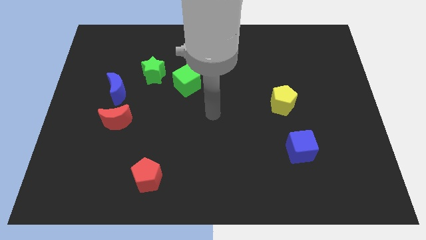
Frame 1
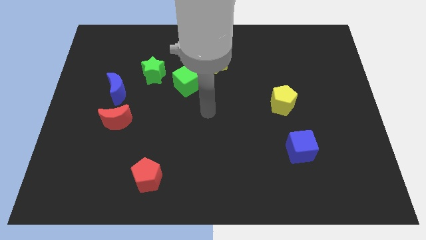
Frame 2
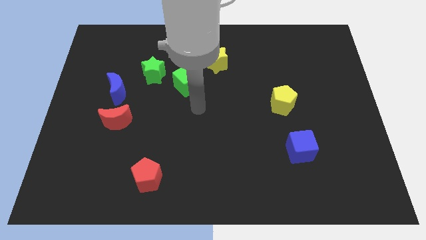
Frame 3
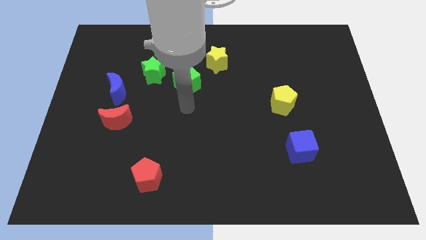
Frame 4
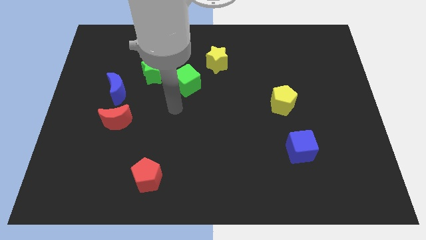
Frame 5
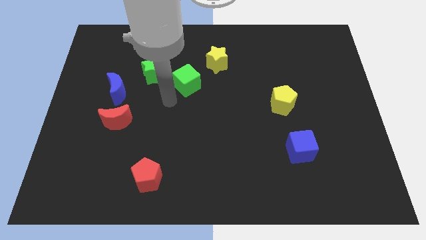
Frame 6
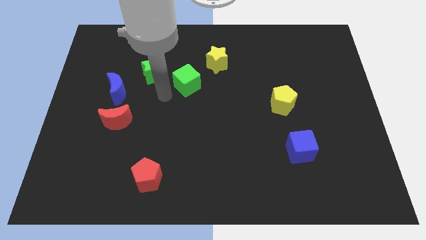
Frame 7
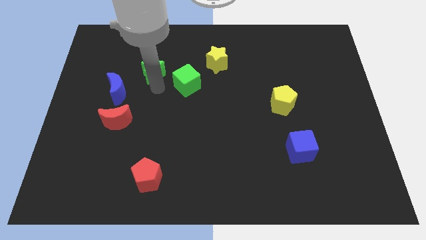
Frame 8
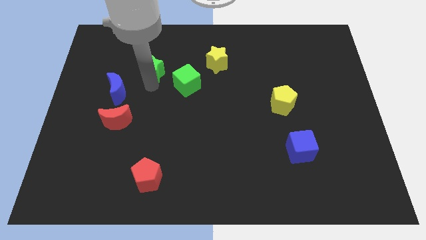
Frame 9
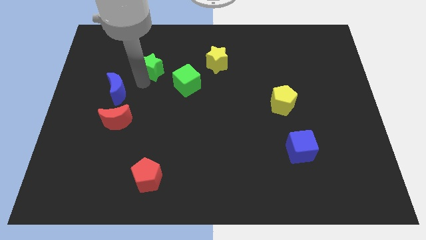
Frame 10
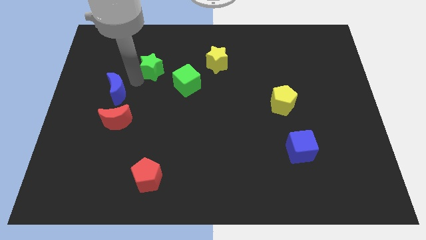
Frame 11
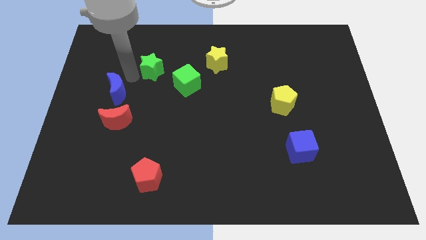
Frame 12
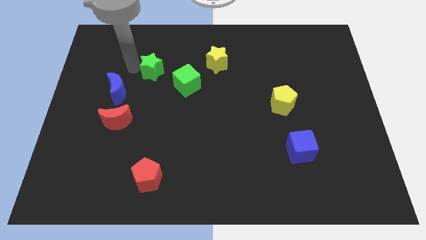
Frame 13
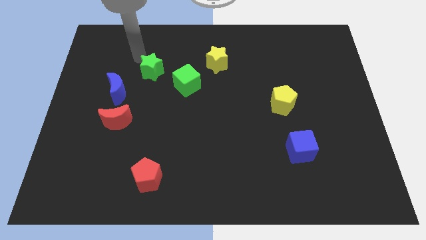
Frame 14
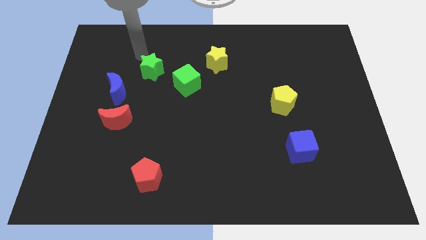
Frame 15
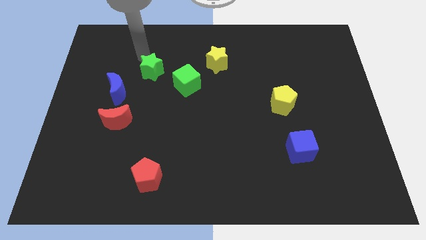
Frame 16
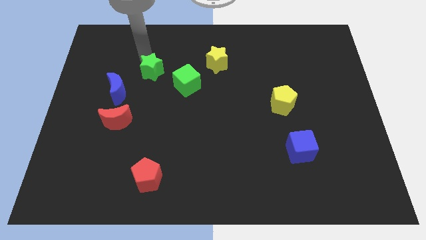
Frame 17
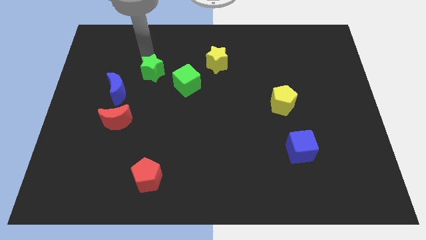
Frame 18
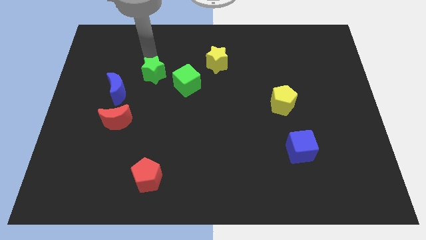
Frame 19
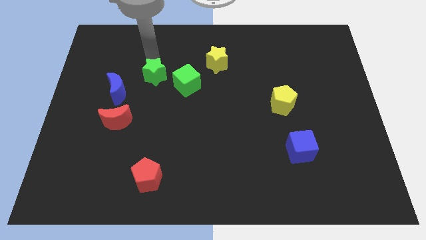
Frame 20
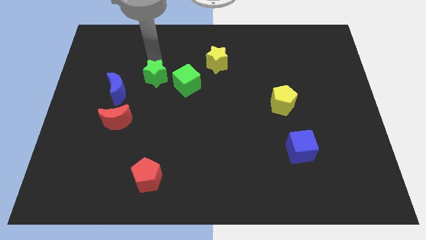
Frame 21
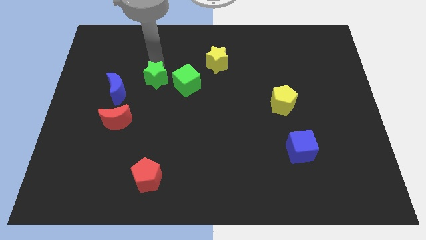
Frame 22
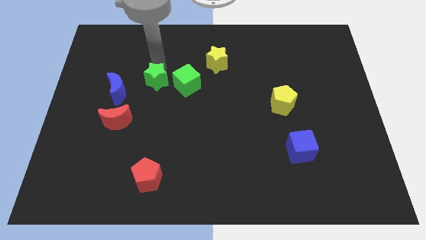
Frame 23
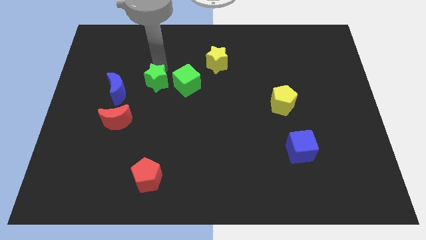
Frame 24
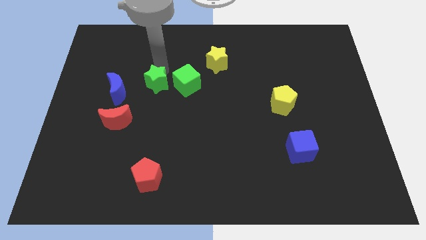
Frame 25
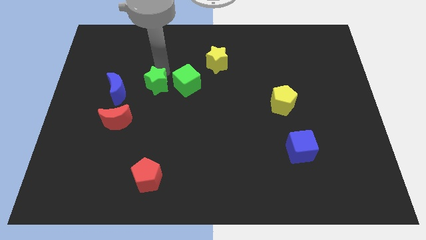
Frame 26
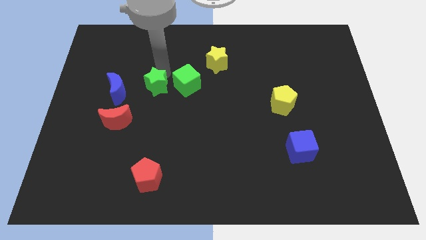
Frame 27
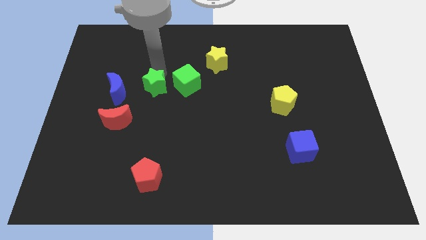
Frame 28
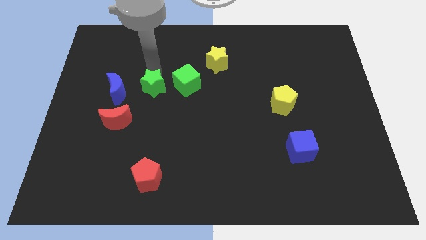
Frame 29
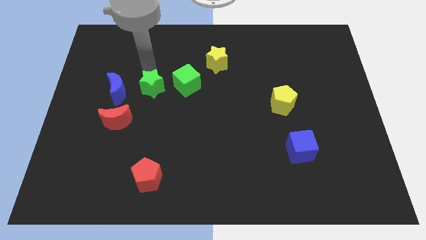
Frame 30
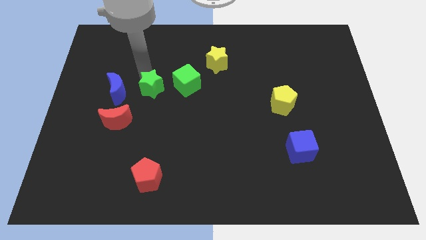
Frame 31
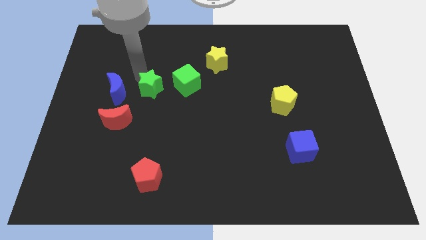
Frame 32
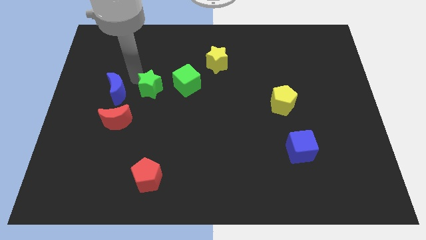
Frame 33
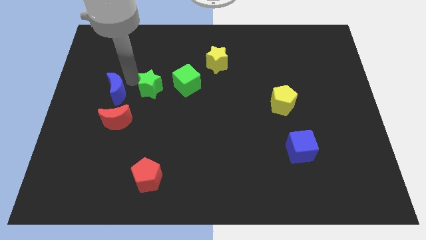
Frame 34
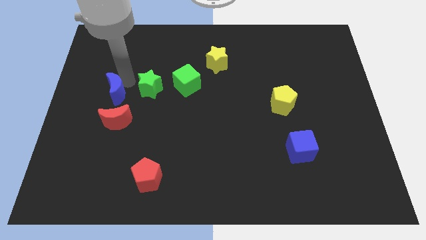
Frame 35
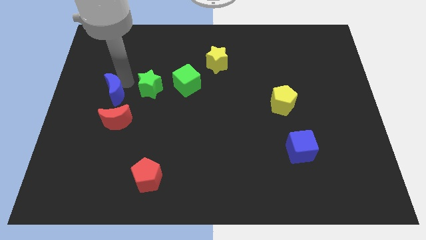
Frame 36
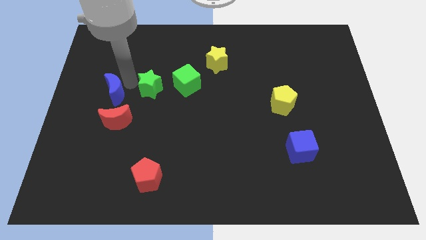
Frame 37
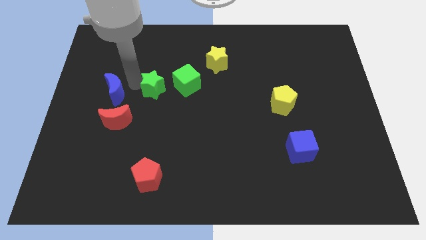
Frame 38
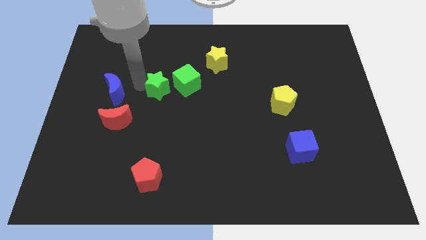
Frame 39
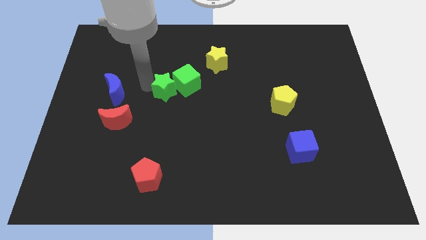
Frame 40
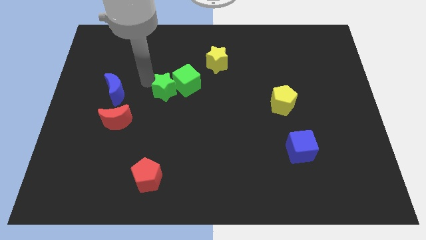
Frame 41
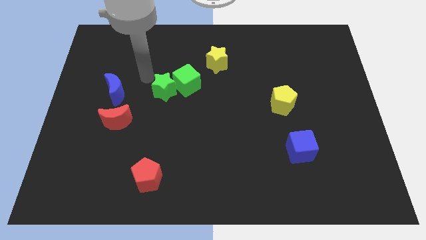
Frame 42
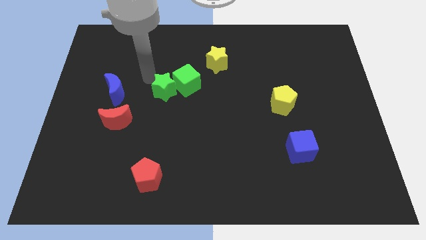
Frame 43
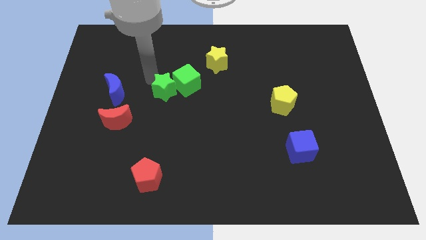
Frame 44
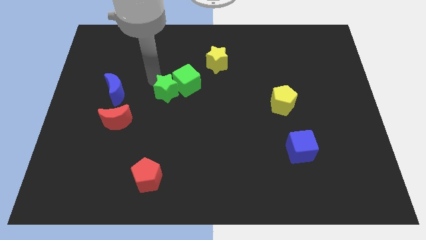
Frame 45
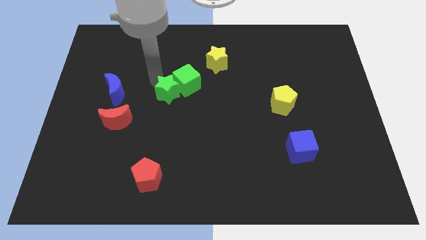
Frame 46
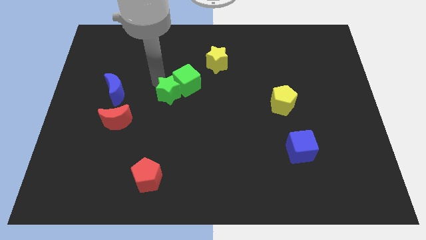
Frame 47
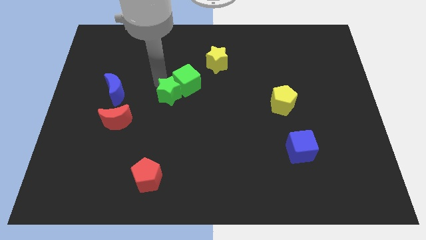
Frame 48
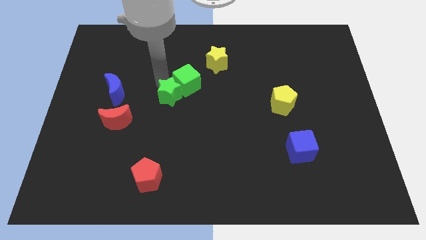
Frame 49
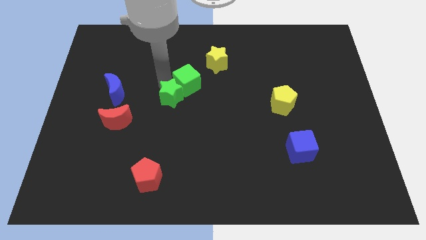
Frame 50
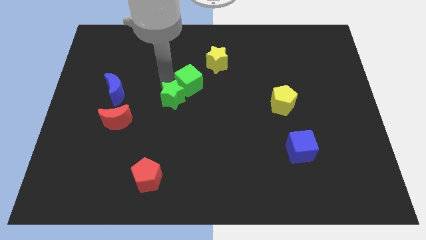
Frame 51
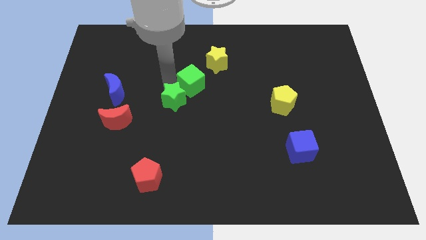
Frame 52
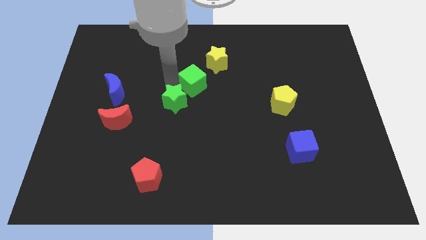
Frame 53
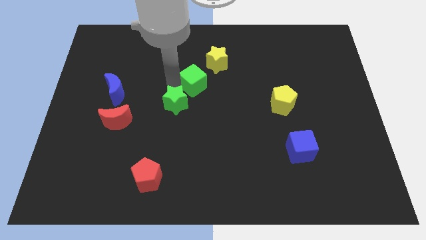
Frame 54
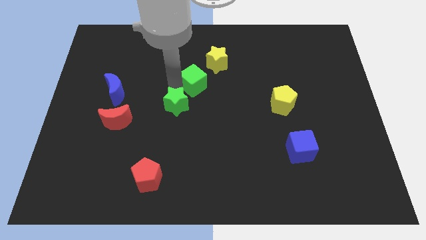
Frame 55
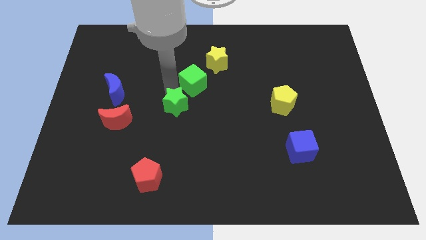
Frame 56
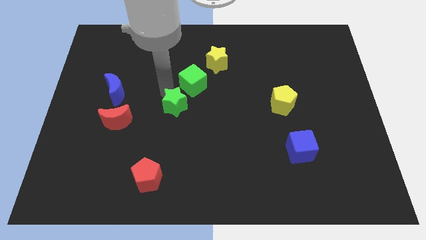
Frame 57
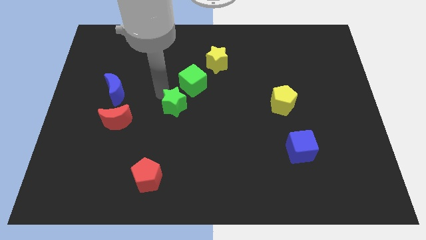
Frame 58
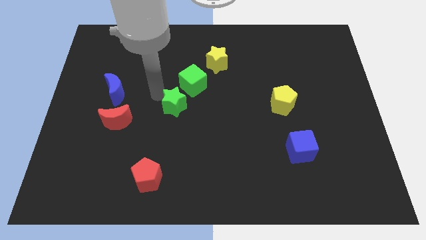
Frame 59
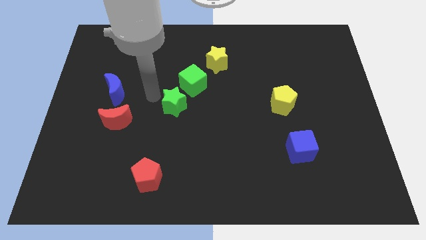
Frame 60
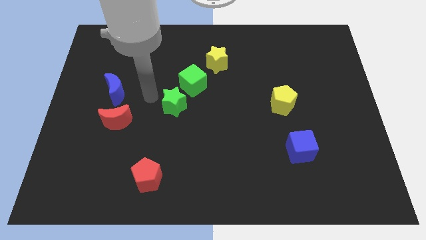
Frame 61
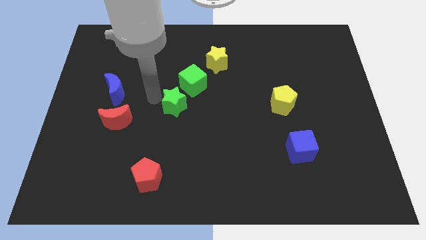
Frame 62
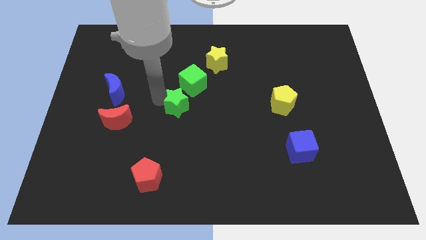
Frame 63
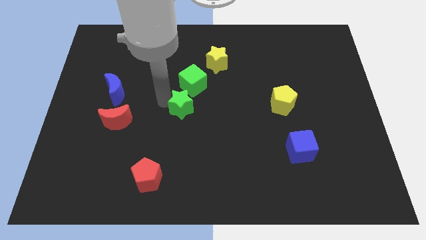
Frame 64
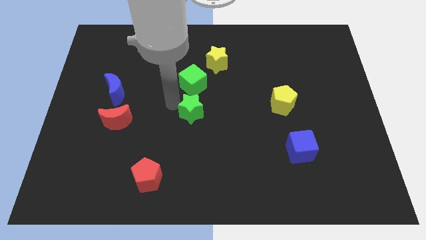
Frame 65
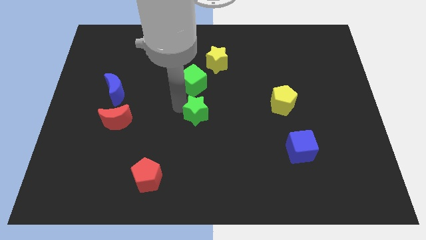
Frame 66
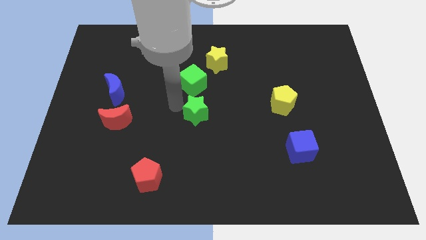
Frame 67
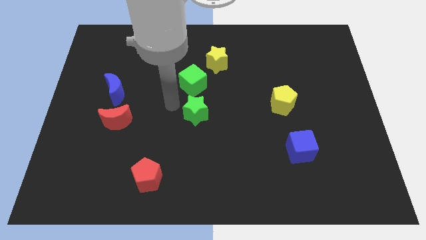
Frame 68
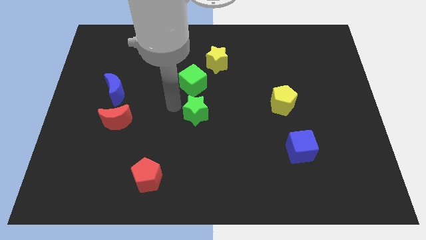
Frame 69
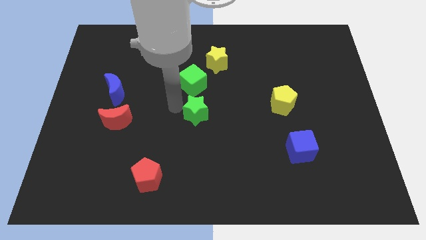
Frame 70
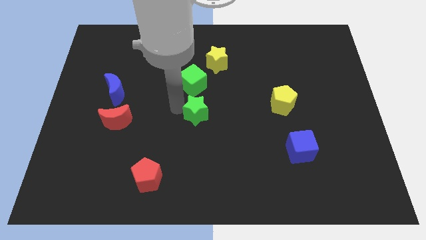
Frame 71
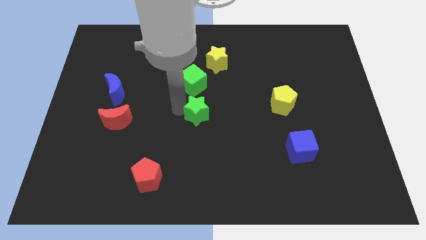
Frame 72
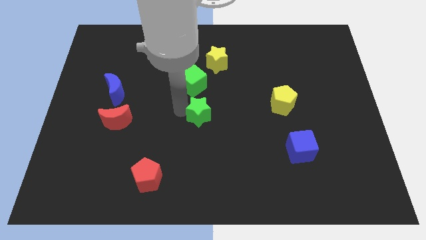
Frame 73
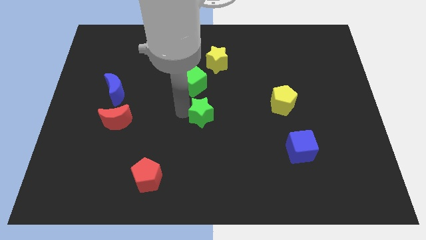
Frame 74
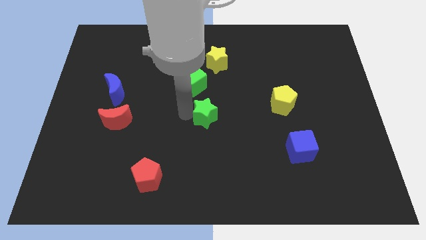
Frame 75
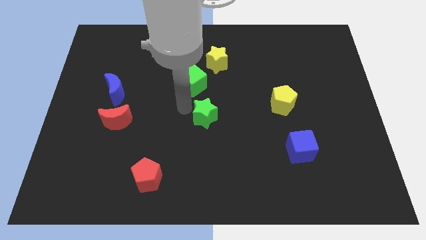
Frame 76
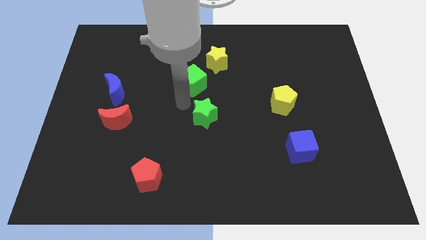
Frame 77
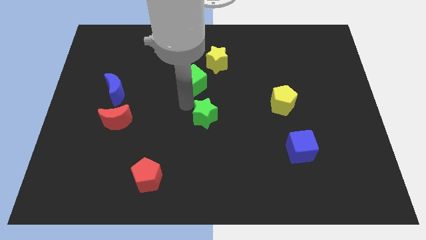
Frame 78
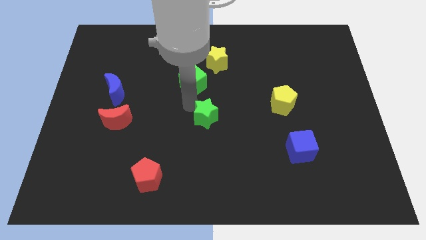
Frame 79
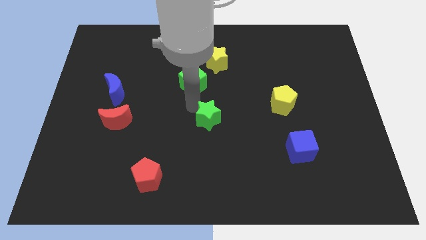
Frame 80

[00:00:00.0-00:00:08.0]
move the green star diagonally down and right
